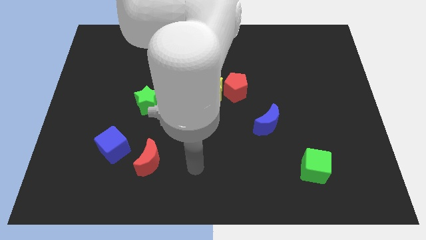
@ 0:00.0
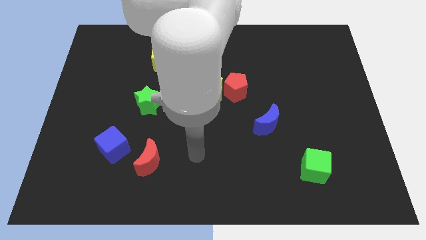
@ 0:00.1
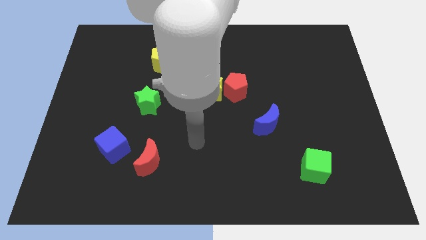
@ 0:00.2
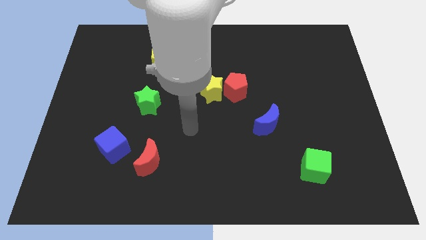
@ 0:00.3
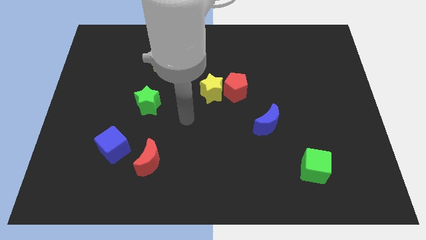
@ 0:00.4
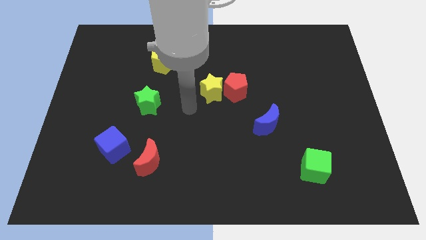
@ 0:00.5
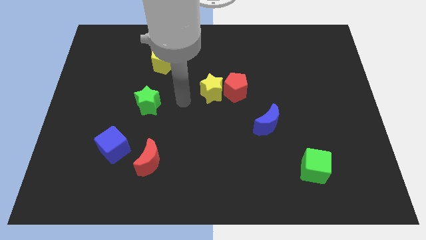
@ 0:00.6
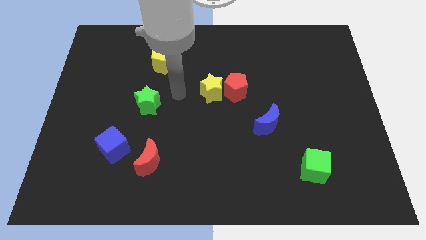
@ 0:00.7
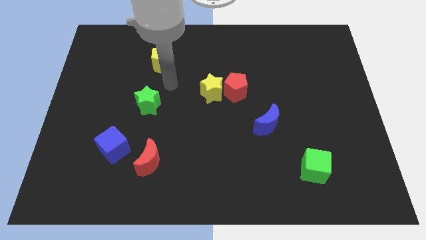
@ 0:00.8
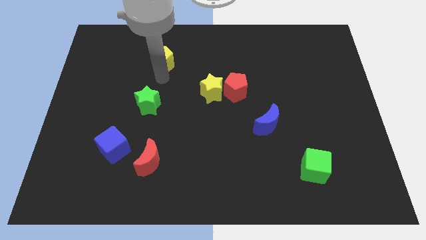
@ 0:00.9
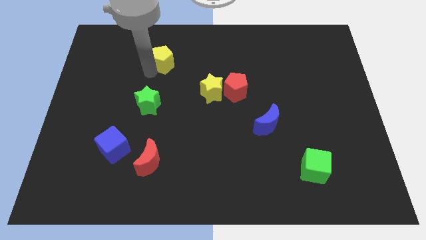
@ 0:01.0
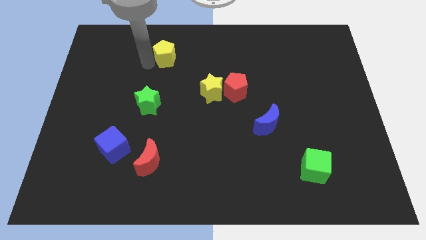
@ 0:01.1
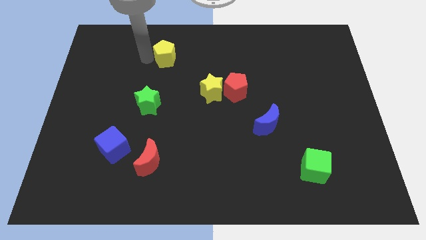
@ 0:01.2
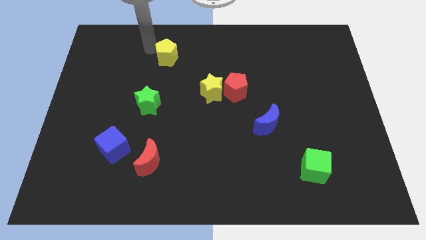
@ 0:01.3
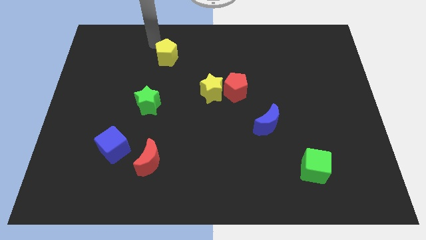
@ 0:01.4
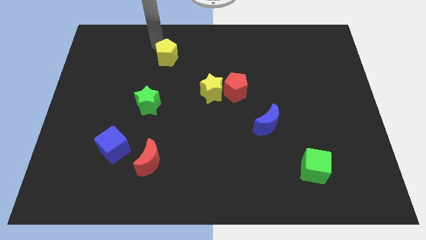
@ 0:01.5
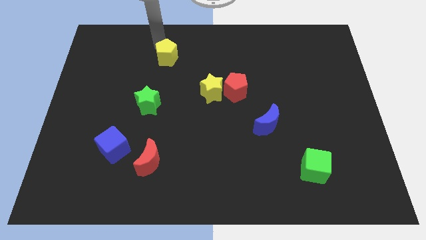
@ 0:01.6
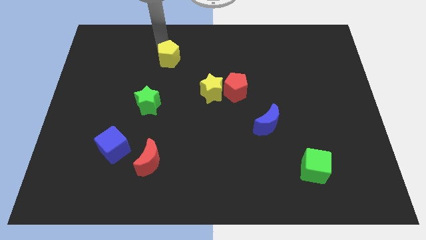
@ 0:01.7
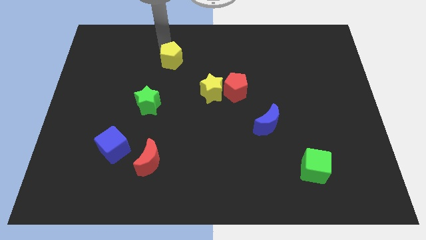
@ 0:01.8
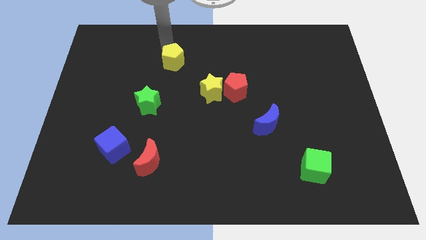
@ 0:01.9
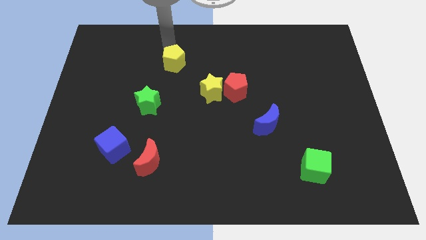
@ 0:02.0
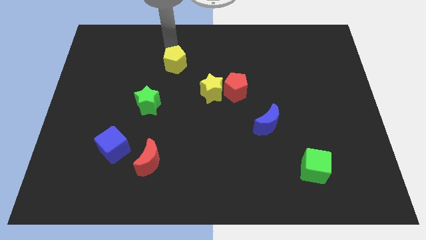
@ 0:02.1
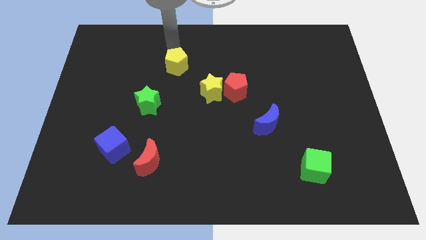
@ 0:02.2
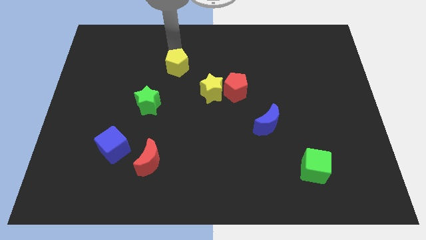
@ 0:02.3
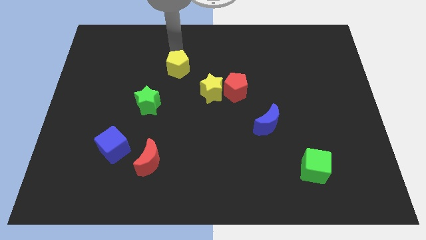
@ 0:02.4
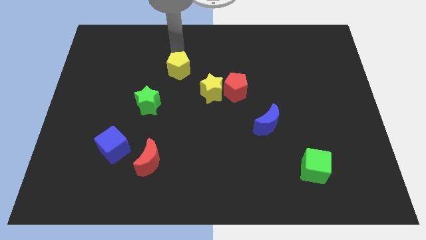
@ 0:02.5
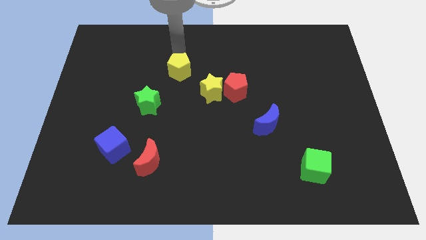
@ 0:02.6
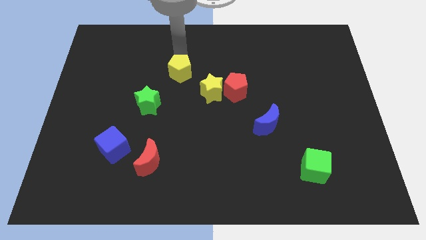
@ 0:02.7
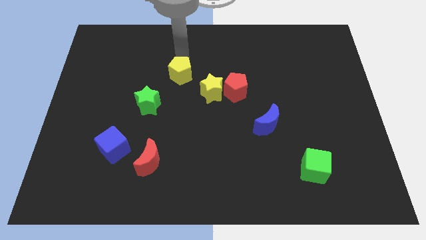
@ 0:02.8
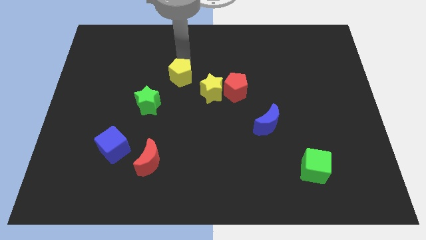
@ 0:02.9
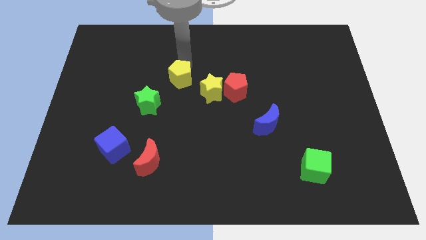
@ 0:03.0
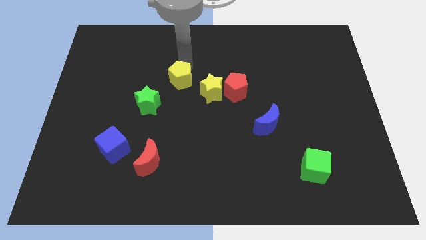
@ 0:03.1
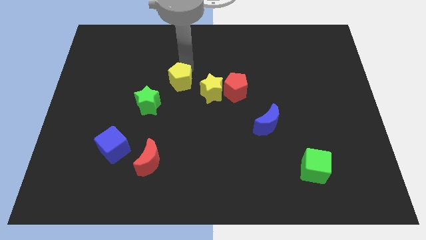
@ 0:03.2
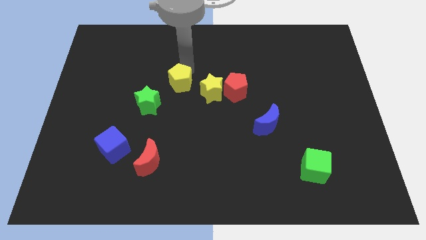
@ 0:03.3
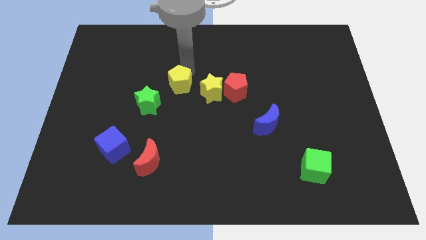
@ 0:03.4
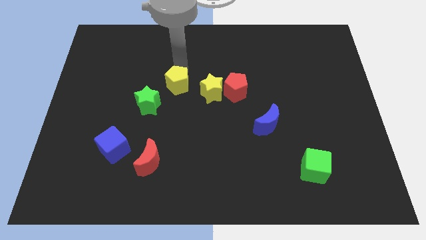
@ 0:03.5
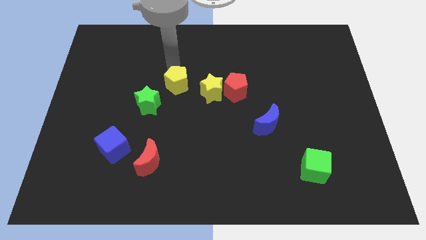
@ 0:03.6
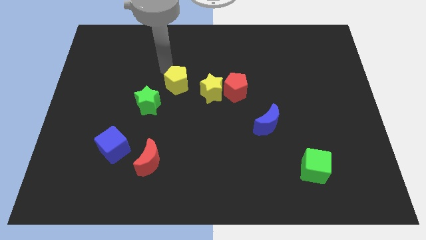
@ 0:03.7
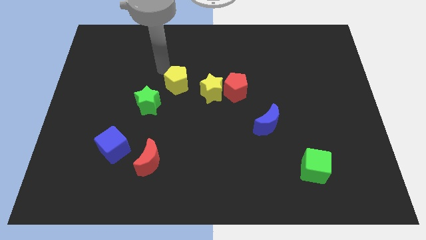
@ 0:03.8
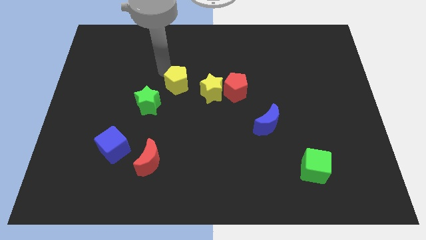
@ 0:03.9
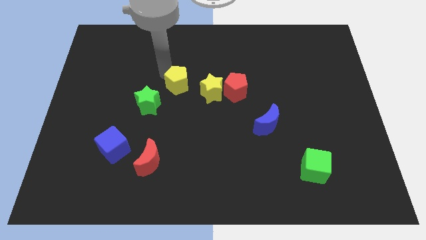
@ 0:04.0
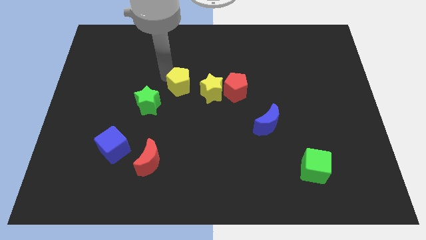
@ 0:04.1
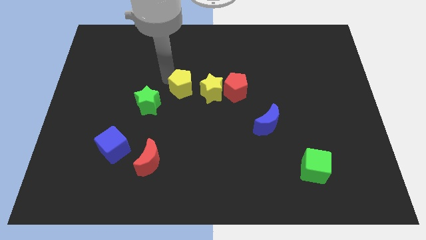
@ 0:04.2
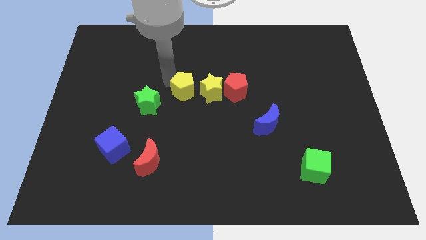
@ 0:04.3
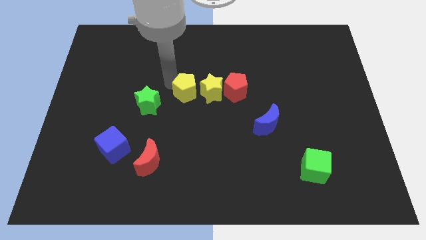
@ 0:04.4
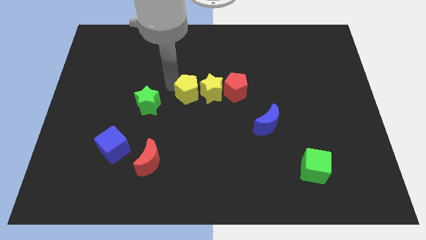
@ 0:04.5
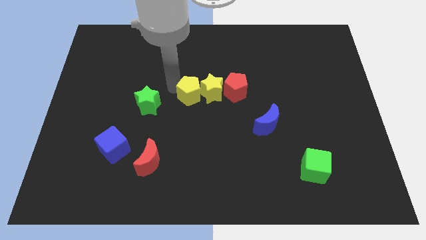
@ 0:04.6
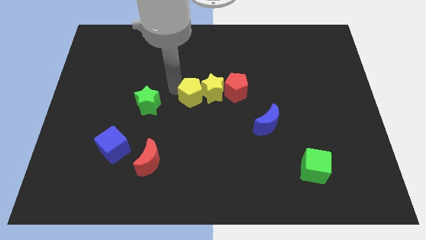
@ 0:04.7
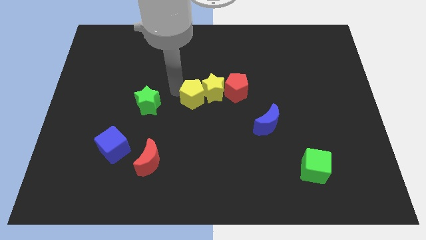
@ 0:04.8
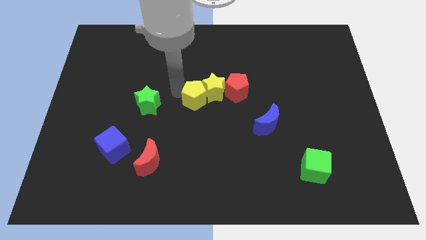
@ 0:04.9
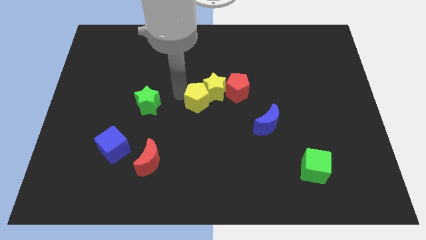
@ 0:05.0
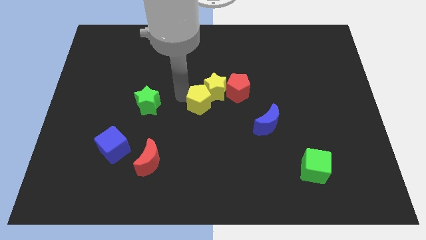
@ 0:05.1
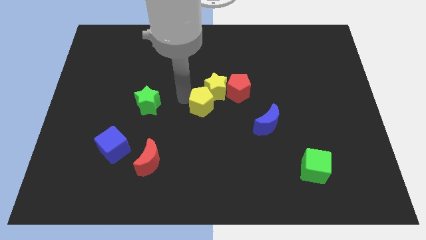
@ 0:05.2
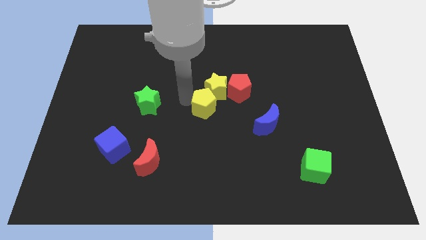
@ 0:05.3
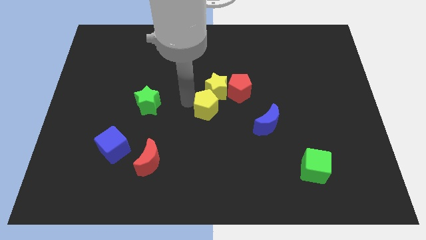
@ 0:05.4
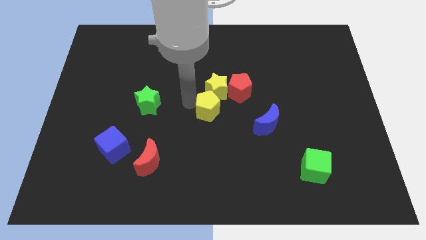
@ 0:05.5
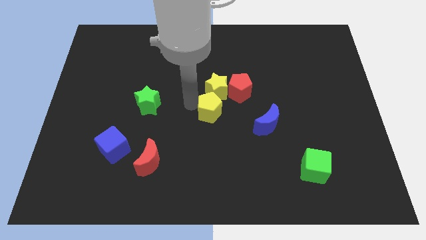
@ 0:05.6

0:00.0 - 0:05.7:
move the yellow pentagon down and to the right diagonally

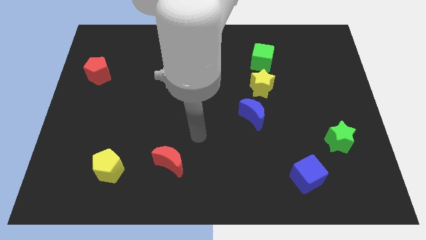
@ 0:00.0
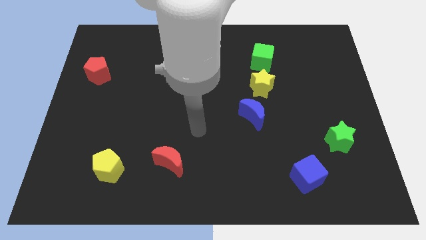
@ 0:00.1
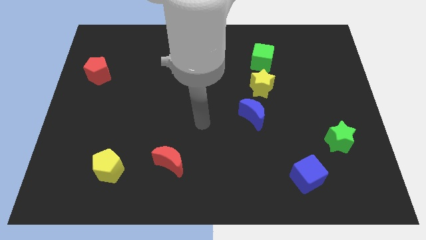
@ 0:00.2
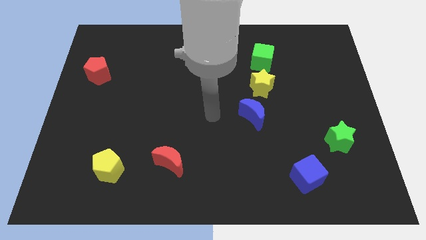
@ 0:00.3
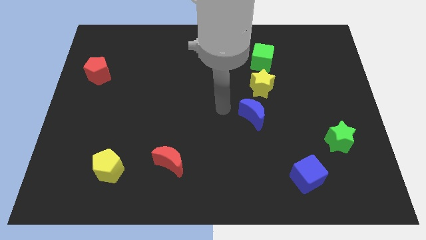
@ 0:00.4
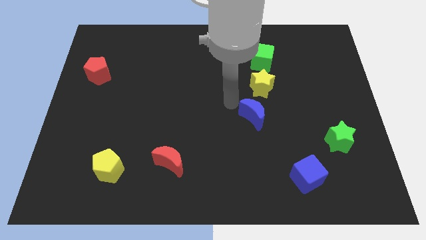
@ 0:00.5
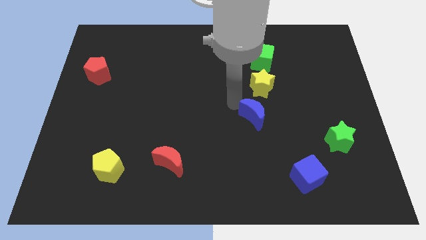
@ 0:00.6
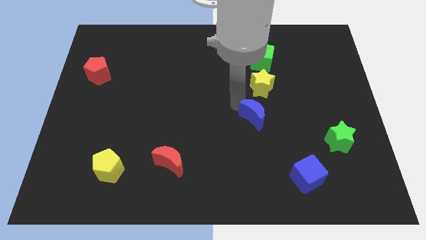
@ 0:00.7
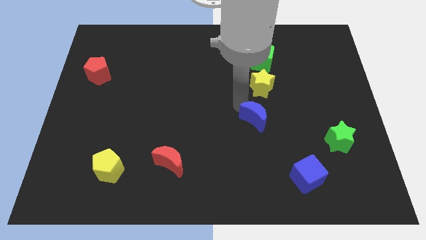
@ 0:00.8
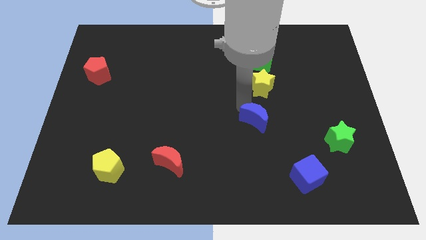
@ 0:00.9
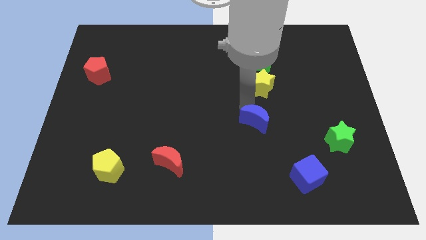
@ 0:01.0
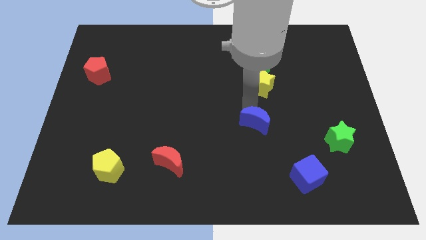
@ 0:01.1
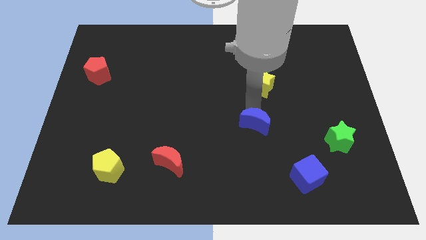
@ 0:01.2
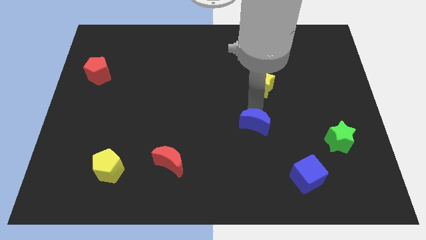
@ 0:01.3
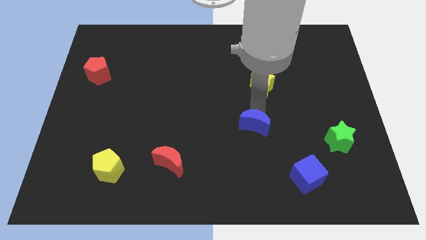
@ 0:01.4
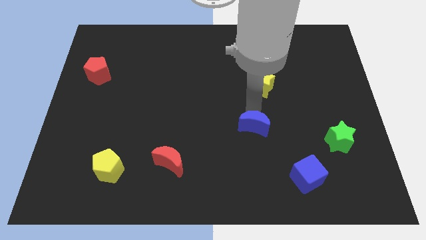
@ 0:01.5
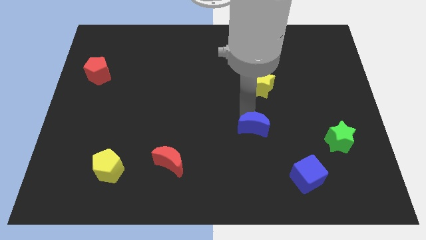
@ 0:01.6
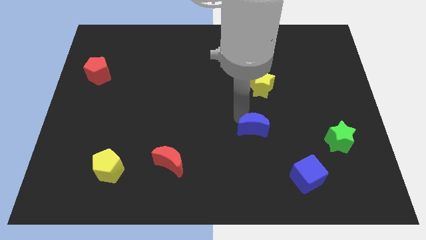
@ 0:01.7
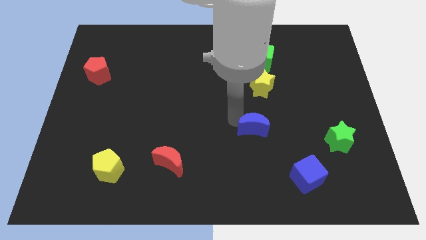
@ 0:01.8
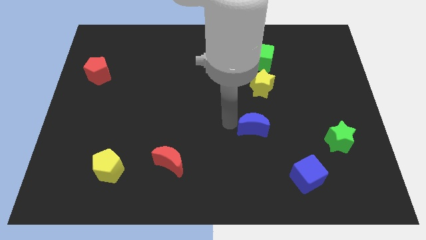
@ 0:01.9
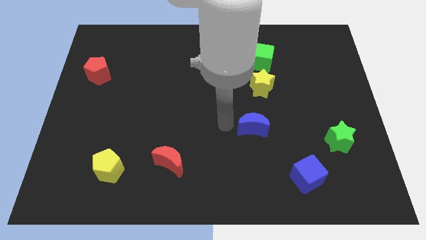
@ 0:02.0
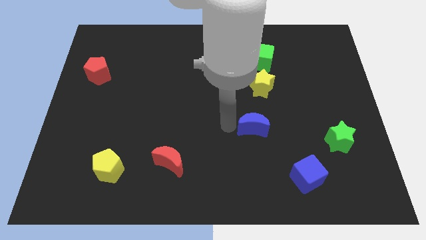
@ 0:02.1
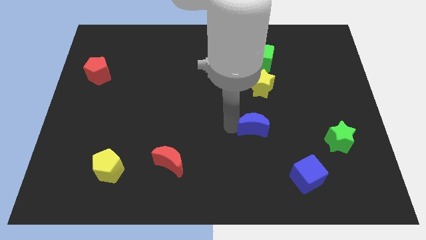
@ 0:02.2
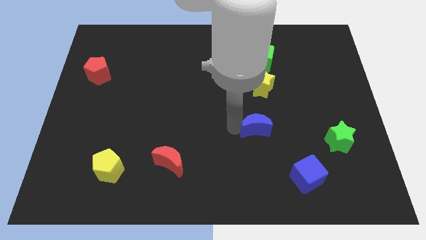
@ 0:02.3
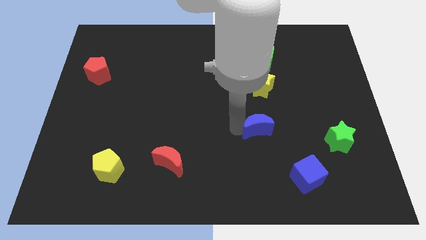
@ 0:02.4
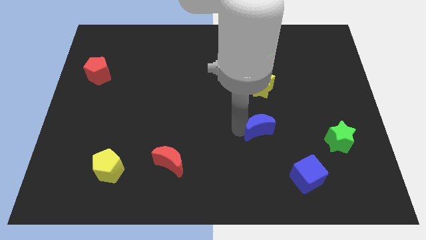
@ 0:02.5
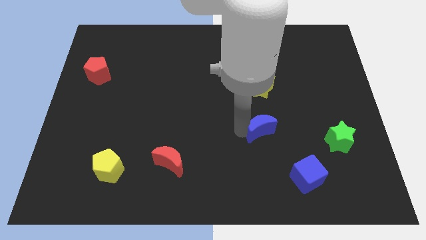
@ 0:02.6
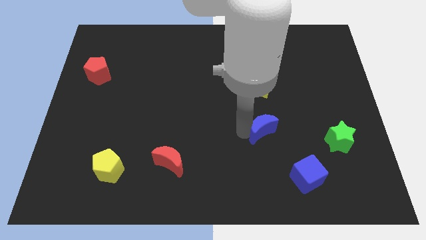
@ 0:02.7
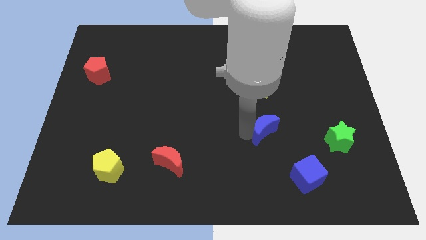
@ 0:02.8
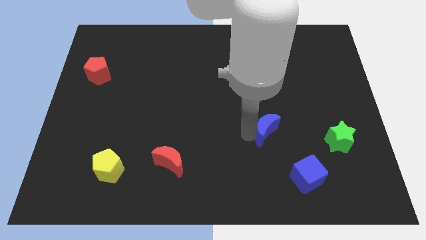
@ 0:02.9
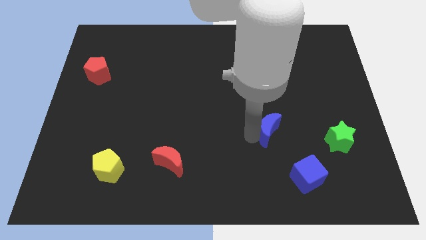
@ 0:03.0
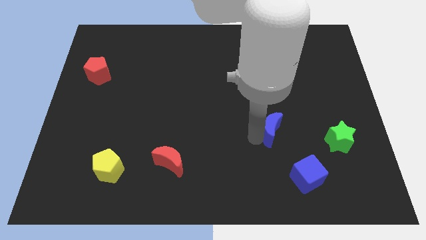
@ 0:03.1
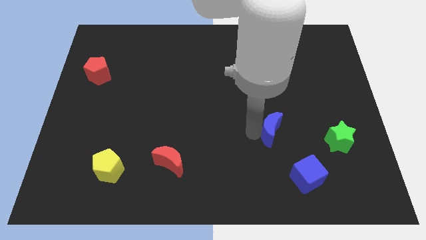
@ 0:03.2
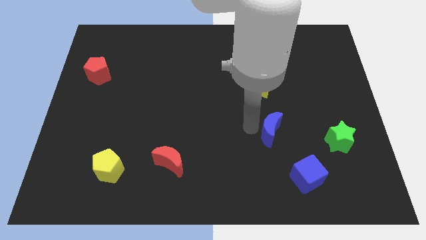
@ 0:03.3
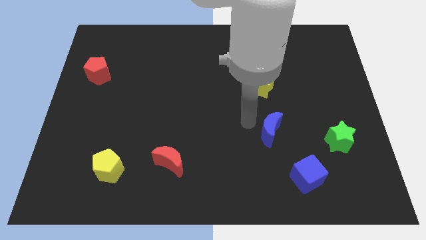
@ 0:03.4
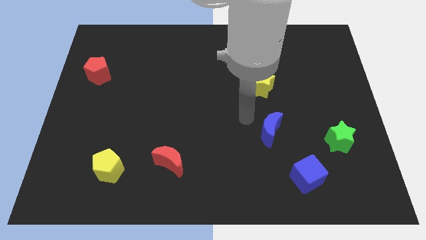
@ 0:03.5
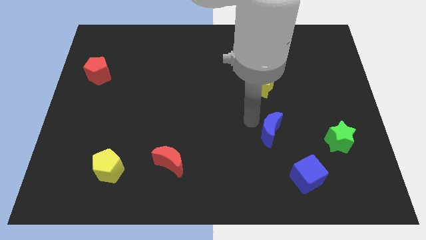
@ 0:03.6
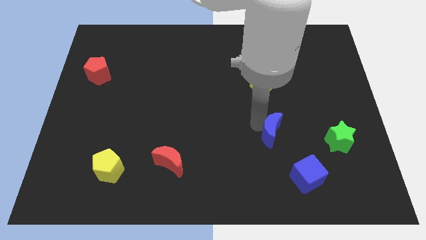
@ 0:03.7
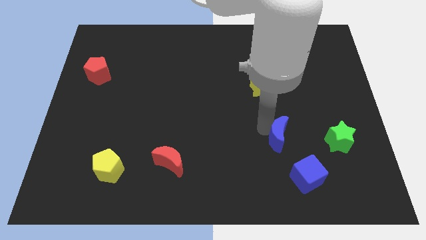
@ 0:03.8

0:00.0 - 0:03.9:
push the blue moon downwards and then to the right somewhat
